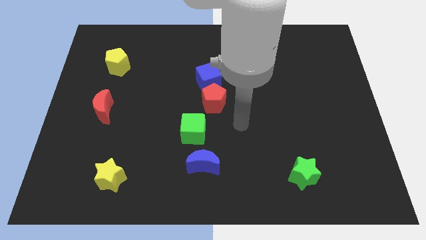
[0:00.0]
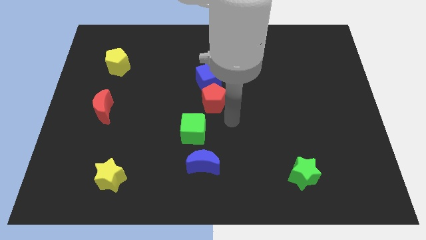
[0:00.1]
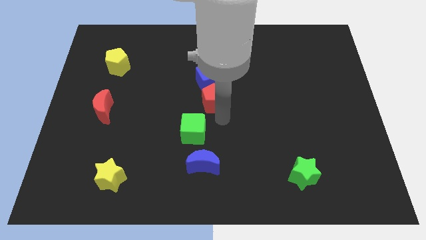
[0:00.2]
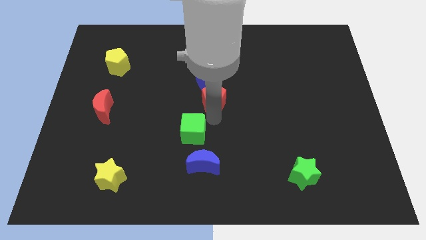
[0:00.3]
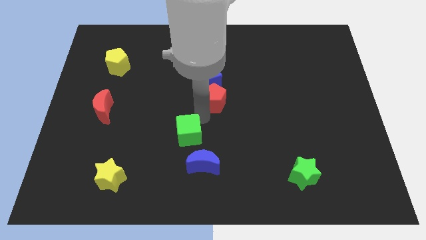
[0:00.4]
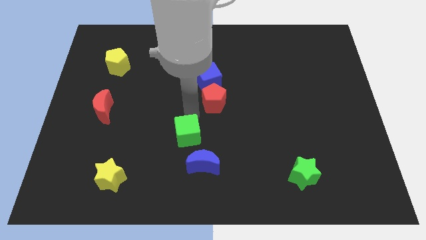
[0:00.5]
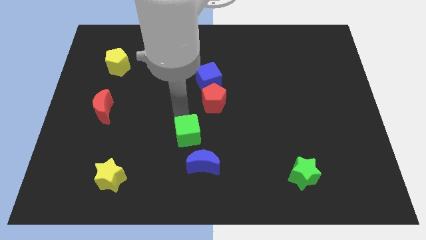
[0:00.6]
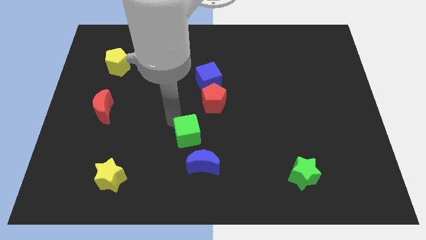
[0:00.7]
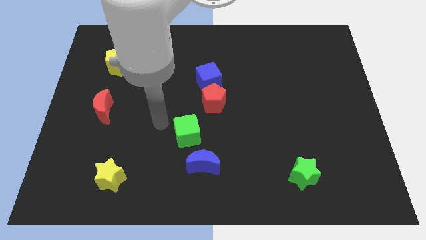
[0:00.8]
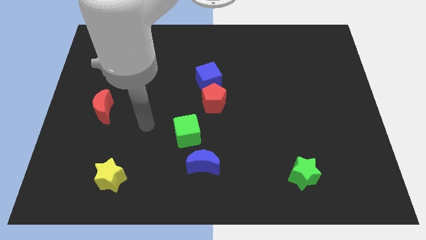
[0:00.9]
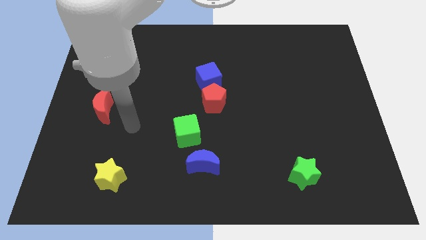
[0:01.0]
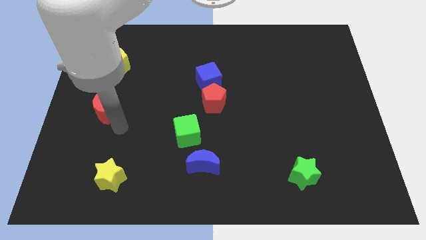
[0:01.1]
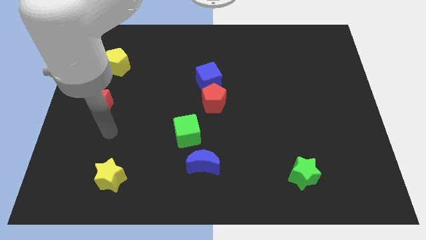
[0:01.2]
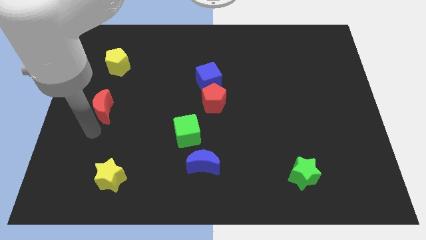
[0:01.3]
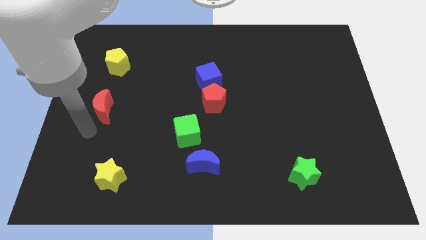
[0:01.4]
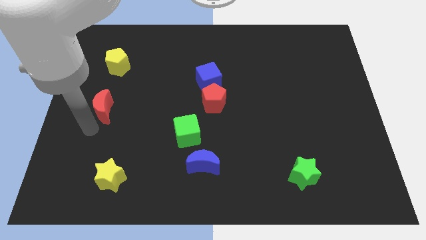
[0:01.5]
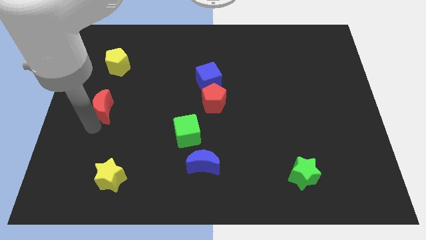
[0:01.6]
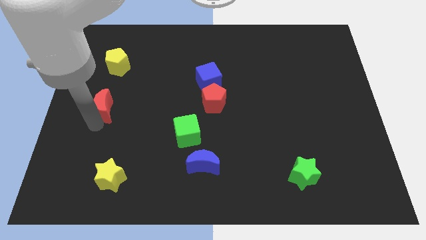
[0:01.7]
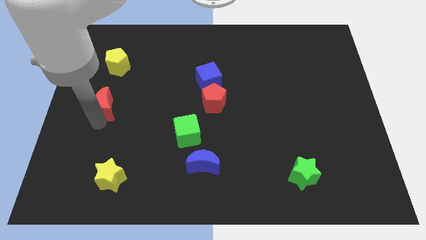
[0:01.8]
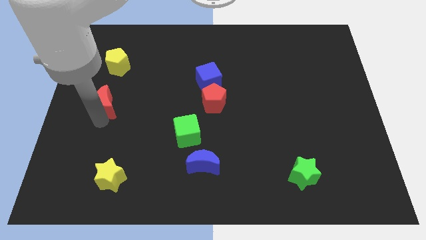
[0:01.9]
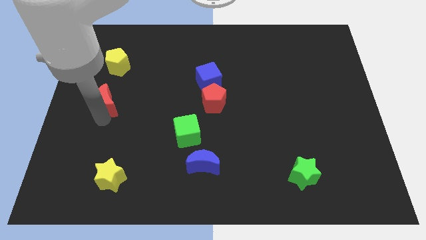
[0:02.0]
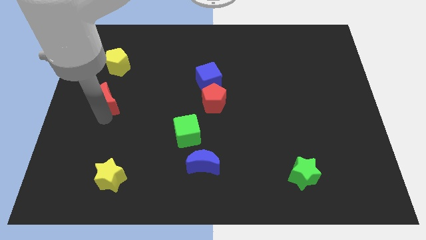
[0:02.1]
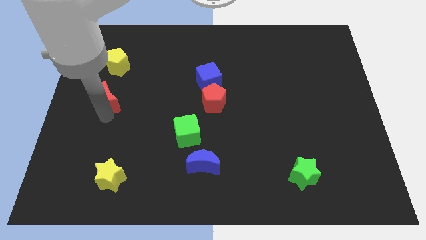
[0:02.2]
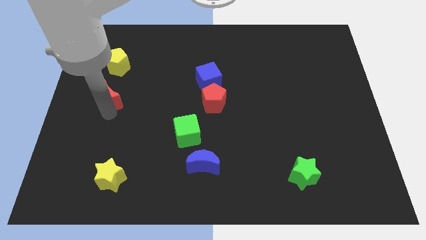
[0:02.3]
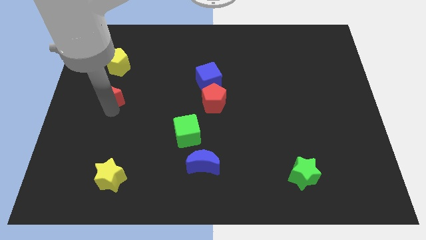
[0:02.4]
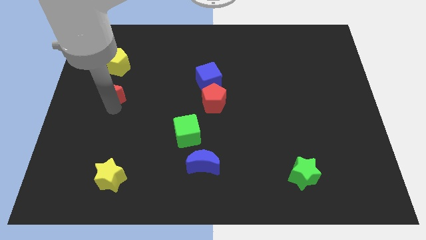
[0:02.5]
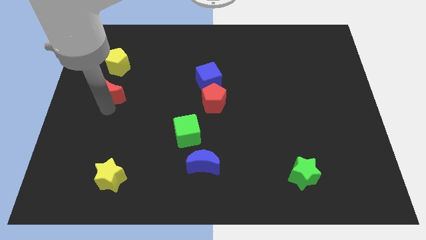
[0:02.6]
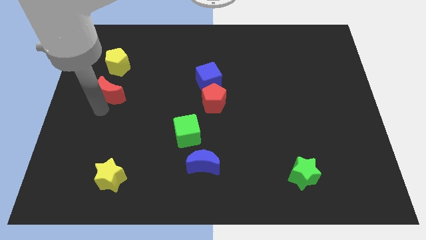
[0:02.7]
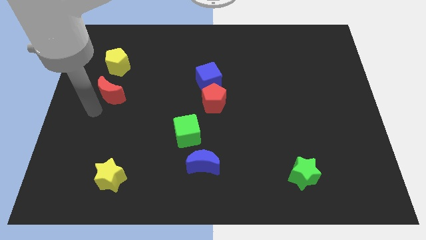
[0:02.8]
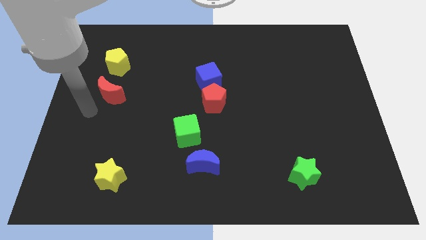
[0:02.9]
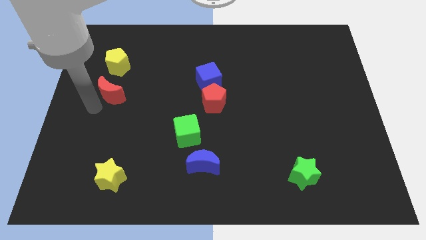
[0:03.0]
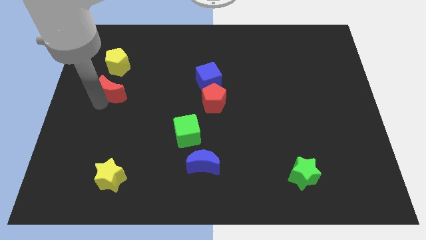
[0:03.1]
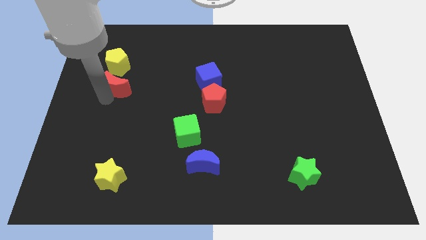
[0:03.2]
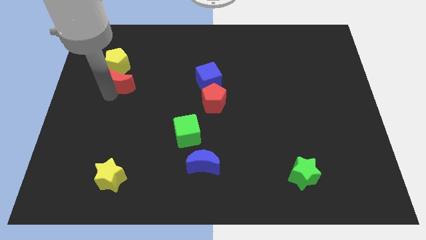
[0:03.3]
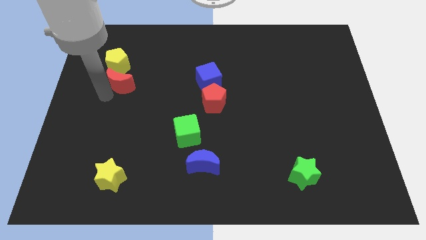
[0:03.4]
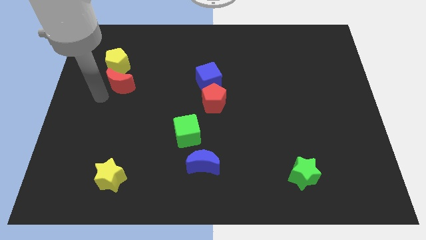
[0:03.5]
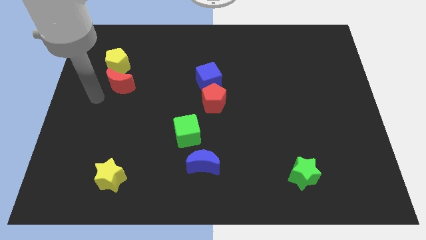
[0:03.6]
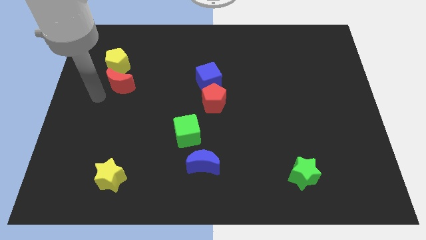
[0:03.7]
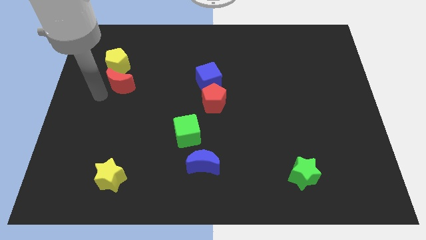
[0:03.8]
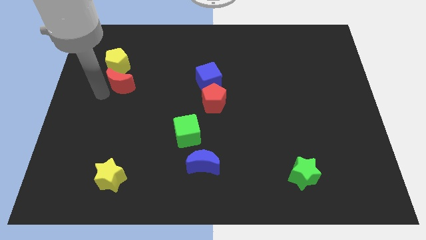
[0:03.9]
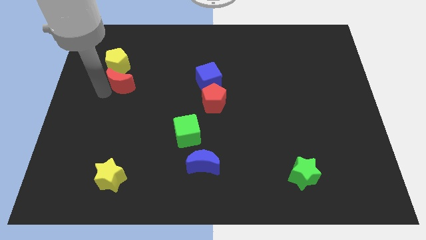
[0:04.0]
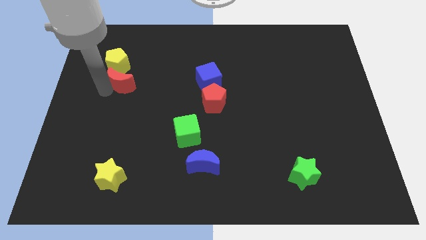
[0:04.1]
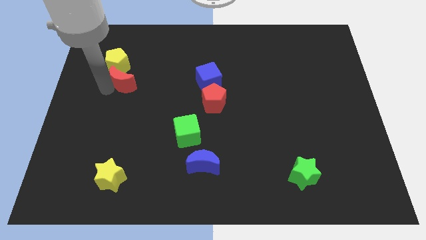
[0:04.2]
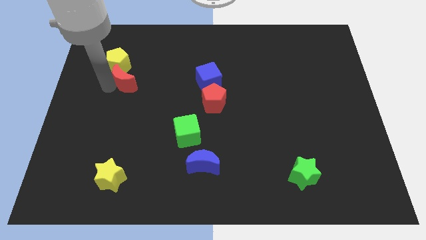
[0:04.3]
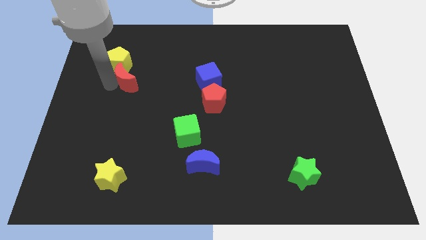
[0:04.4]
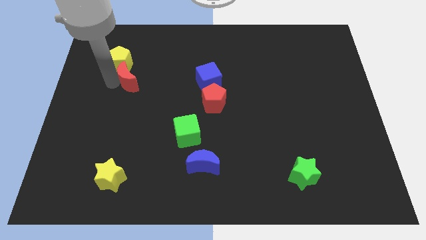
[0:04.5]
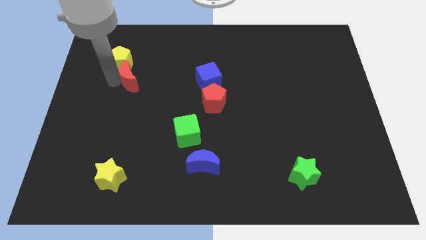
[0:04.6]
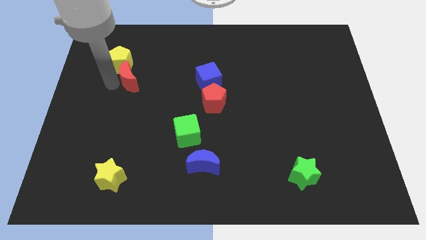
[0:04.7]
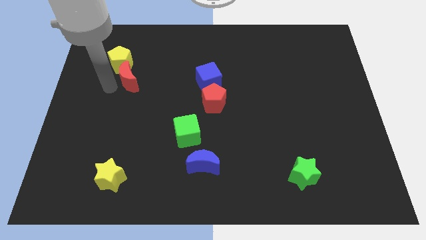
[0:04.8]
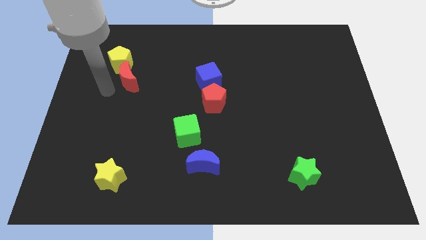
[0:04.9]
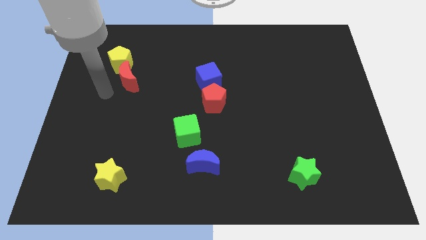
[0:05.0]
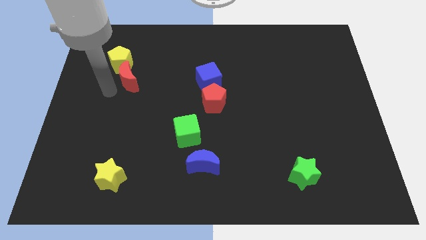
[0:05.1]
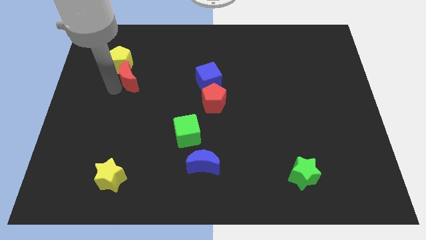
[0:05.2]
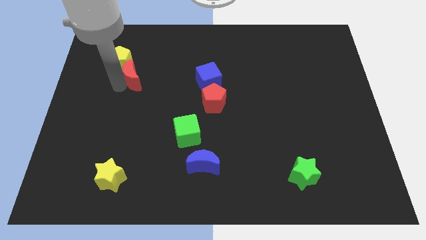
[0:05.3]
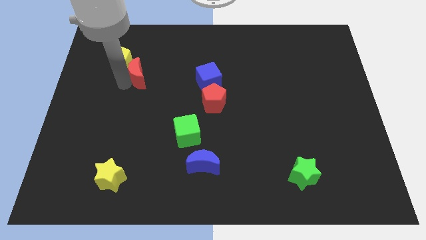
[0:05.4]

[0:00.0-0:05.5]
put the red moon just right of the yellow pentagon

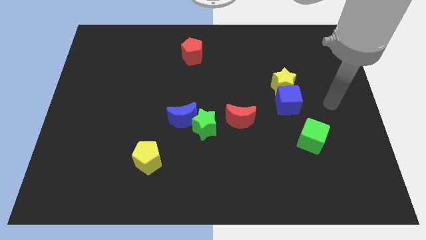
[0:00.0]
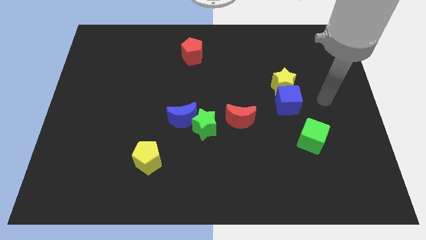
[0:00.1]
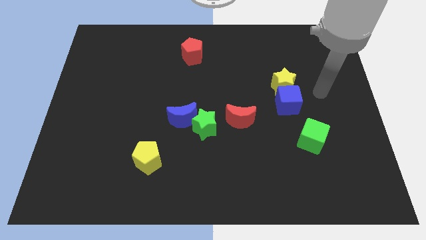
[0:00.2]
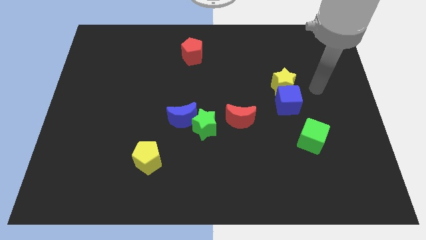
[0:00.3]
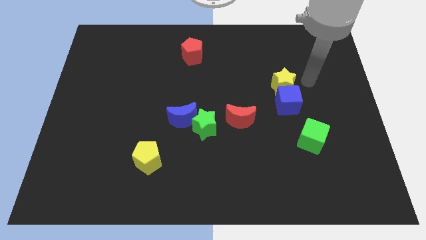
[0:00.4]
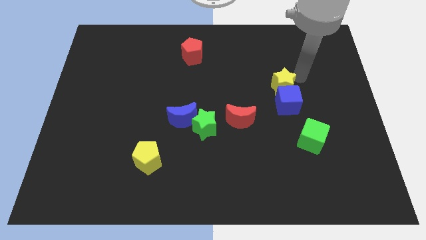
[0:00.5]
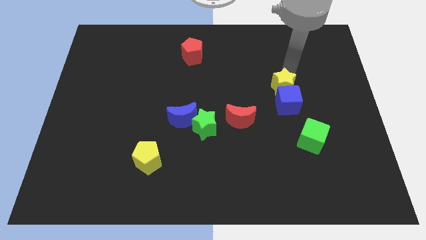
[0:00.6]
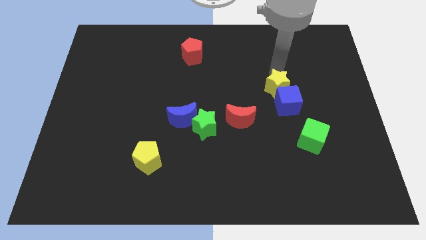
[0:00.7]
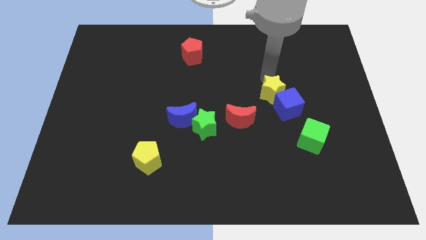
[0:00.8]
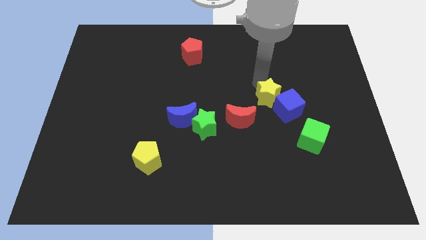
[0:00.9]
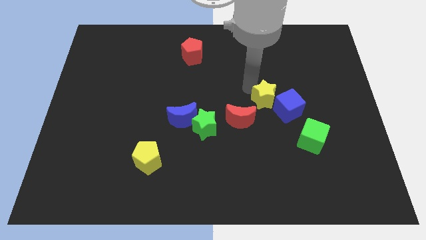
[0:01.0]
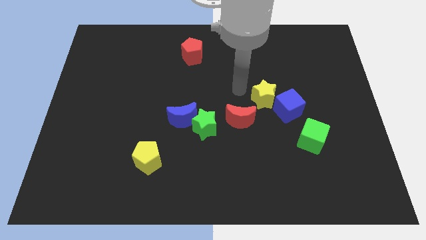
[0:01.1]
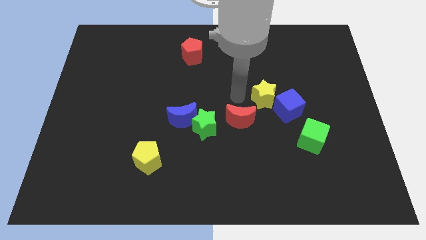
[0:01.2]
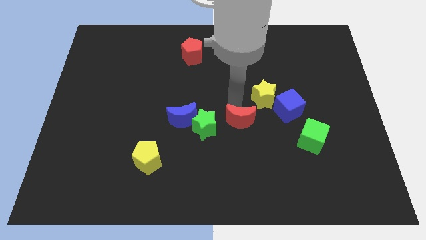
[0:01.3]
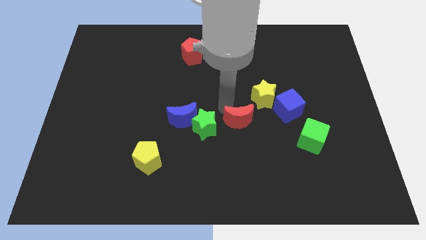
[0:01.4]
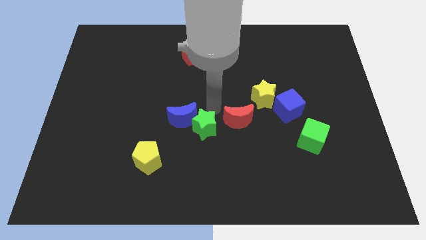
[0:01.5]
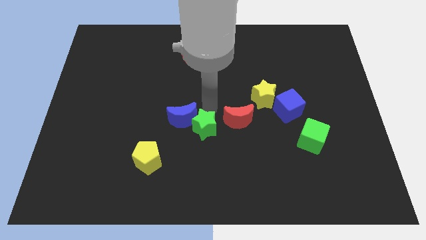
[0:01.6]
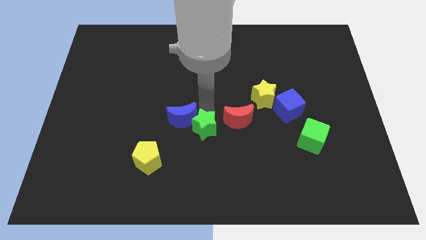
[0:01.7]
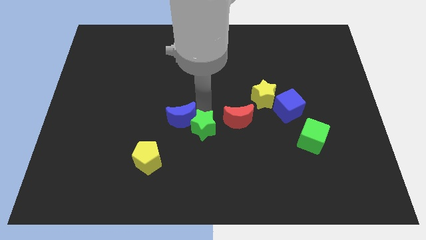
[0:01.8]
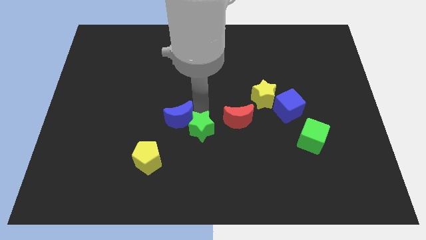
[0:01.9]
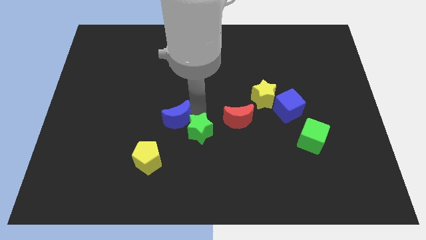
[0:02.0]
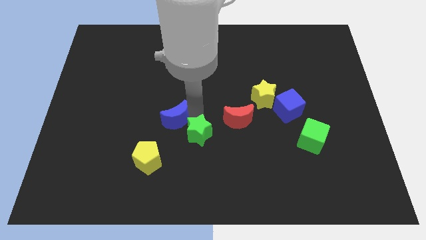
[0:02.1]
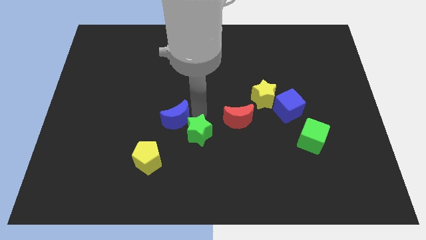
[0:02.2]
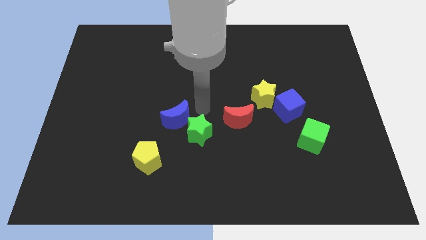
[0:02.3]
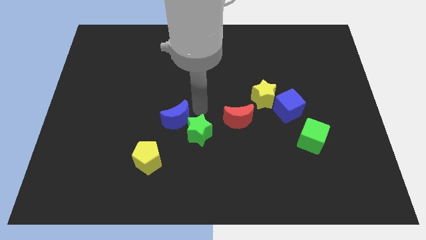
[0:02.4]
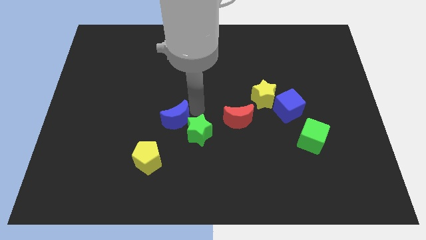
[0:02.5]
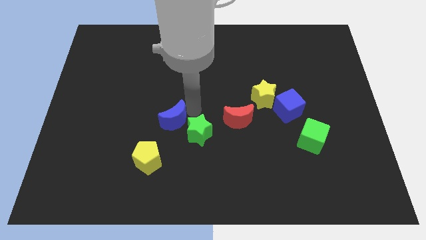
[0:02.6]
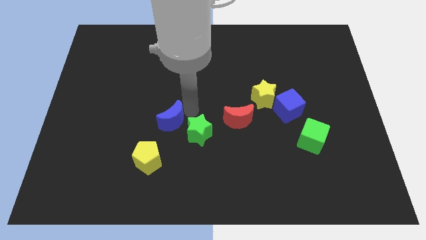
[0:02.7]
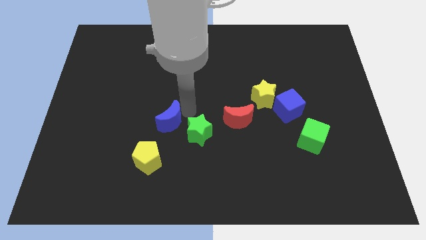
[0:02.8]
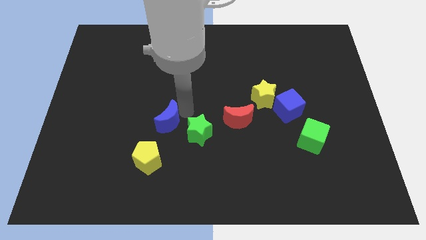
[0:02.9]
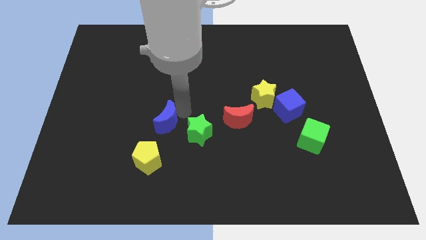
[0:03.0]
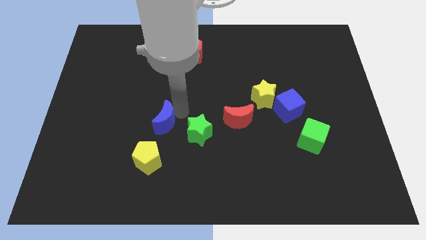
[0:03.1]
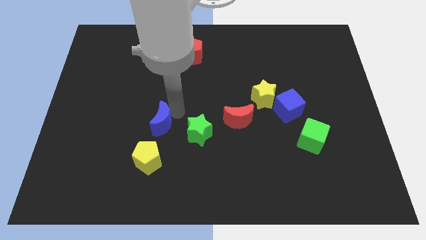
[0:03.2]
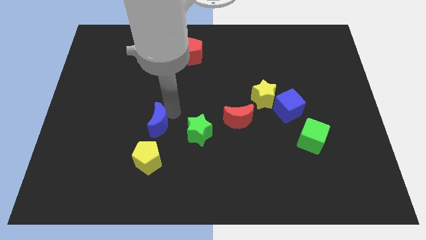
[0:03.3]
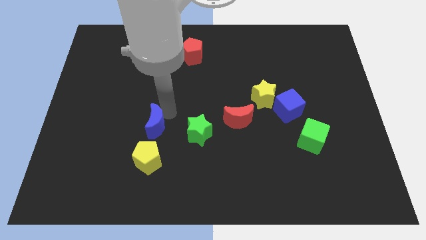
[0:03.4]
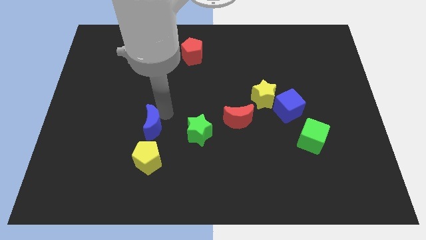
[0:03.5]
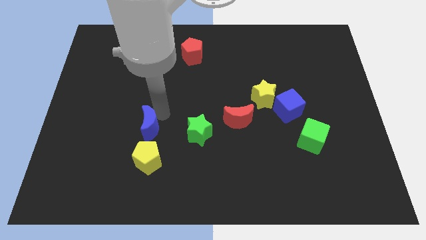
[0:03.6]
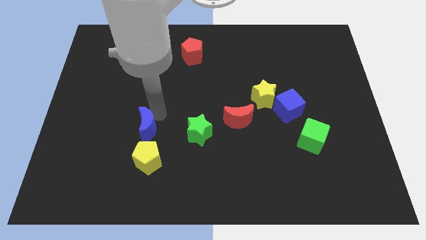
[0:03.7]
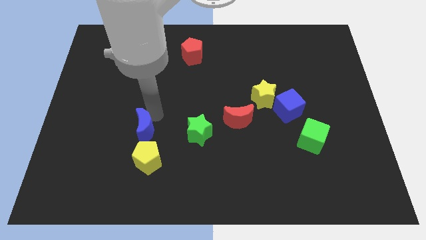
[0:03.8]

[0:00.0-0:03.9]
put the blue moon to the top left of the yellow pentagon
